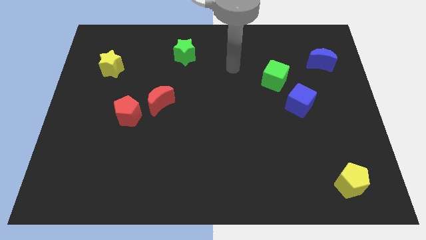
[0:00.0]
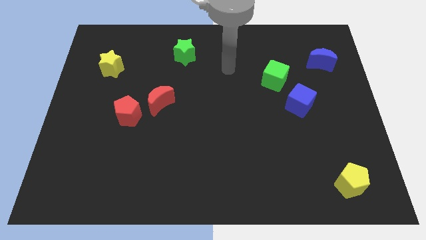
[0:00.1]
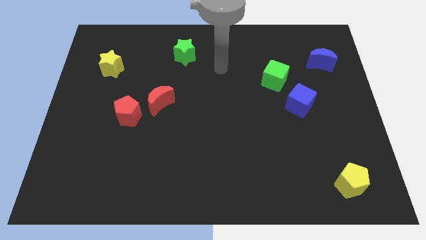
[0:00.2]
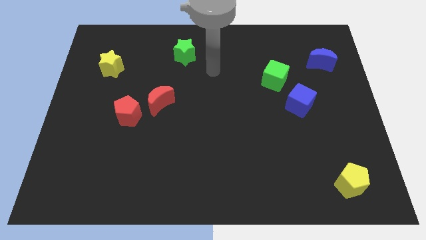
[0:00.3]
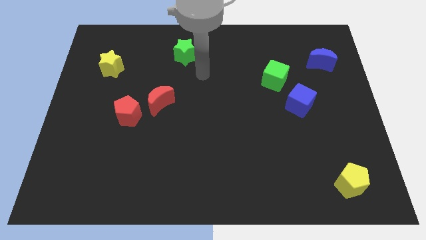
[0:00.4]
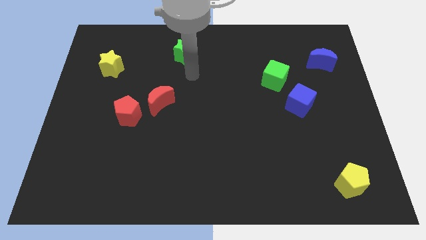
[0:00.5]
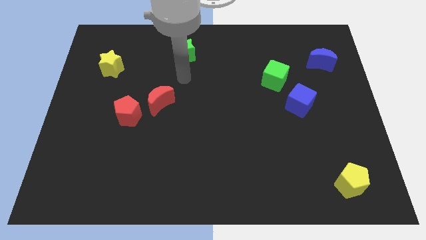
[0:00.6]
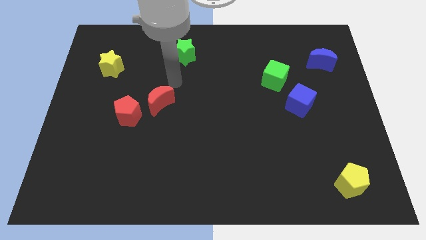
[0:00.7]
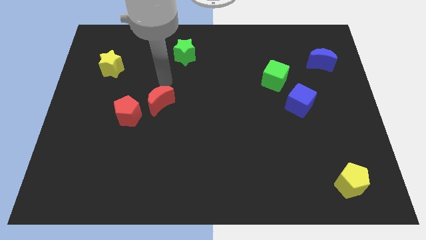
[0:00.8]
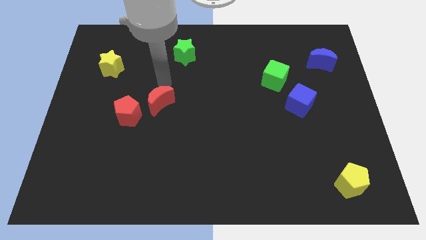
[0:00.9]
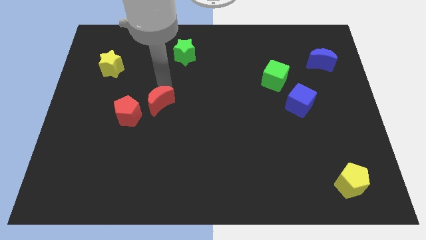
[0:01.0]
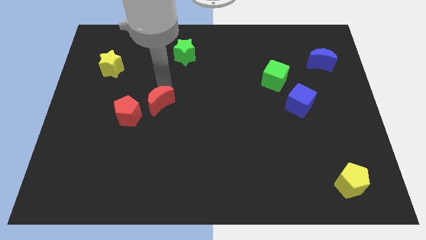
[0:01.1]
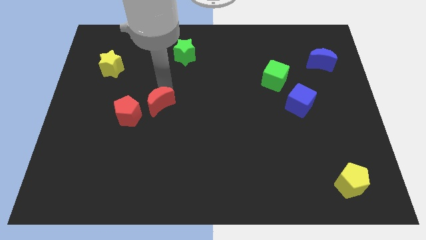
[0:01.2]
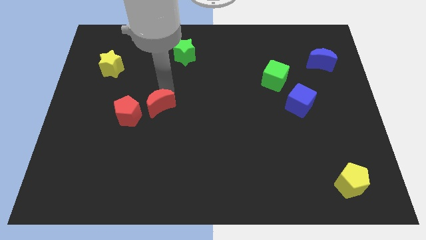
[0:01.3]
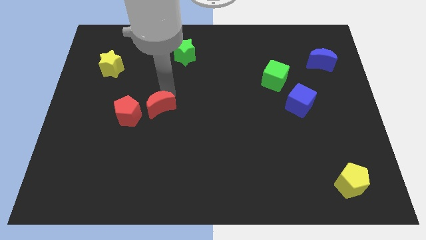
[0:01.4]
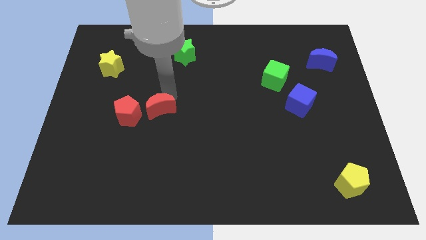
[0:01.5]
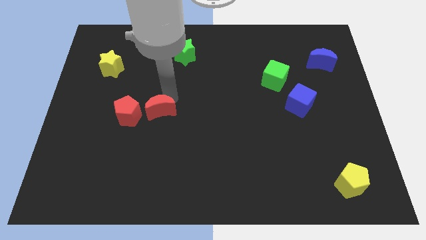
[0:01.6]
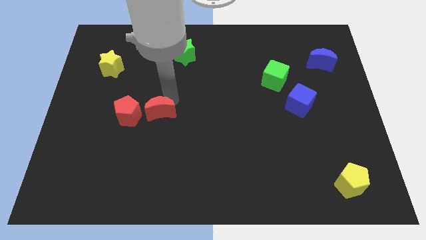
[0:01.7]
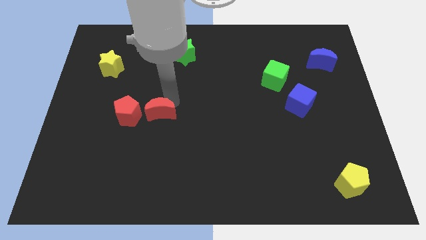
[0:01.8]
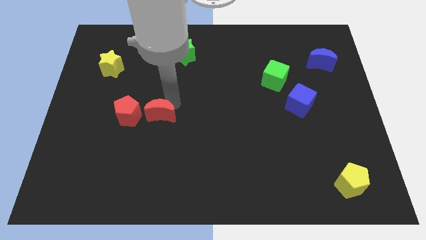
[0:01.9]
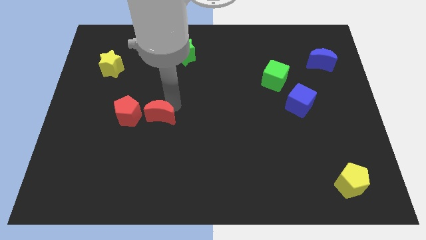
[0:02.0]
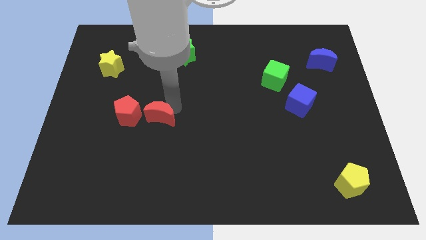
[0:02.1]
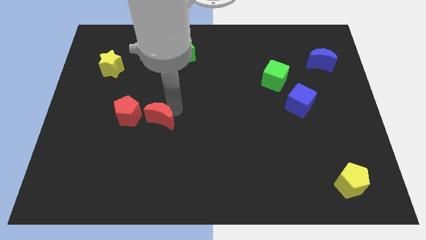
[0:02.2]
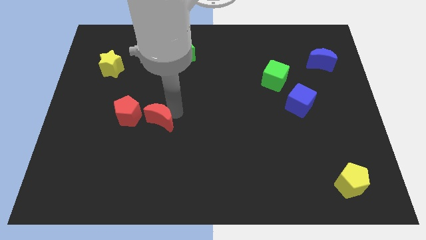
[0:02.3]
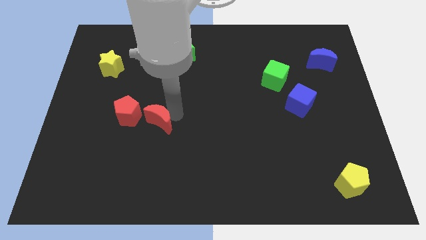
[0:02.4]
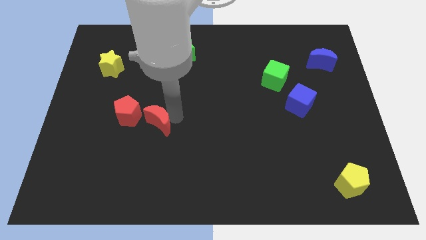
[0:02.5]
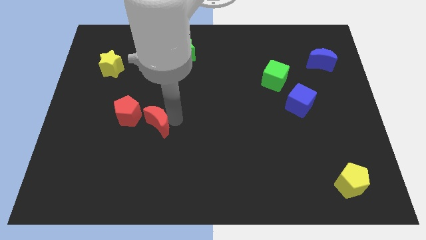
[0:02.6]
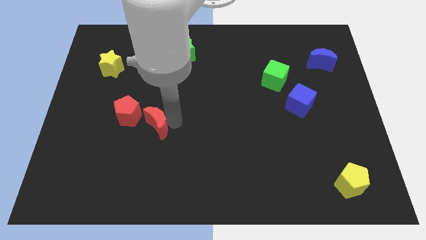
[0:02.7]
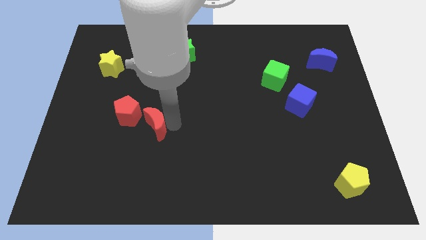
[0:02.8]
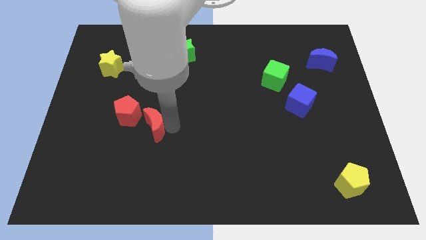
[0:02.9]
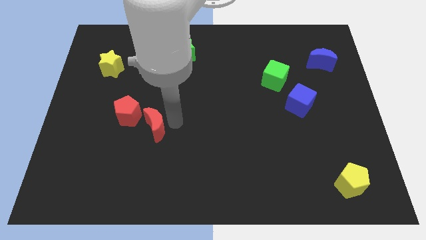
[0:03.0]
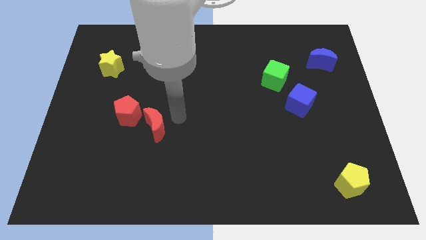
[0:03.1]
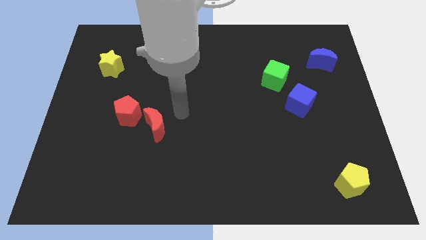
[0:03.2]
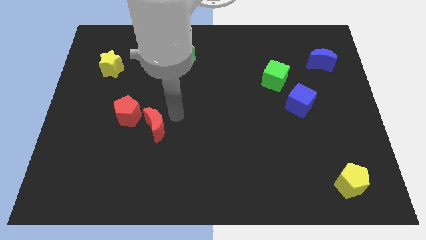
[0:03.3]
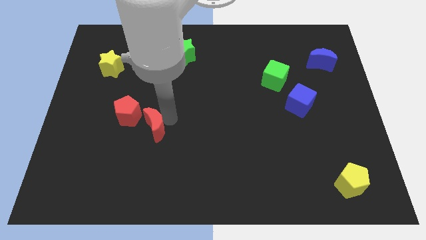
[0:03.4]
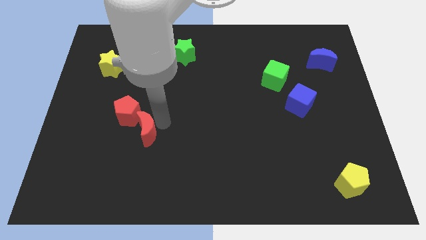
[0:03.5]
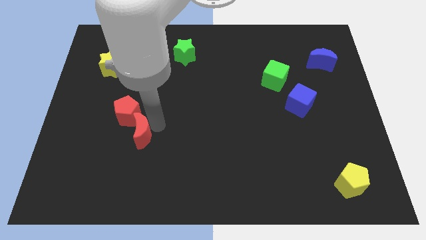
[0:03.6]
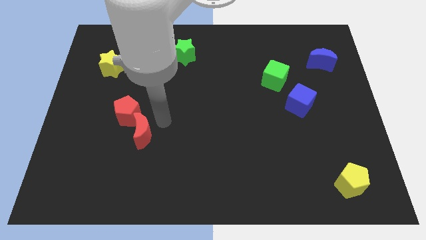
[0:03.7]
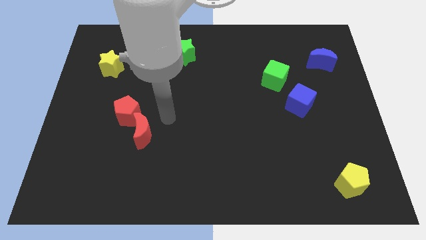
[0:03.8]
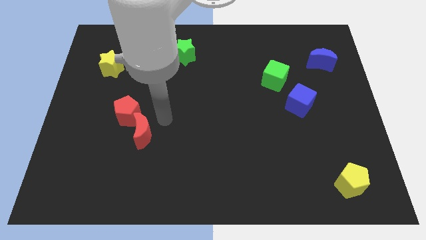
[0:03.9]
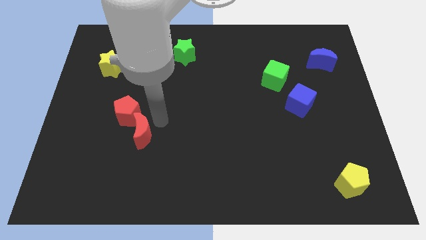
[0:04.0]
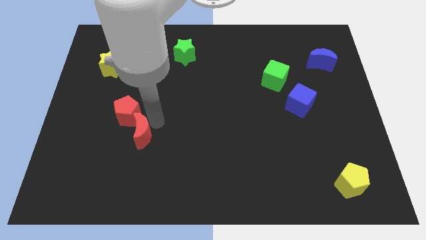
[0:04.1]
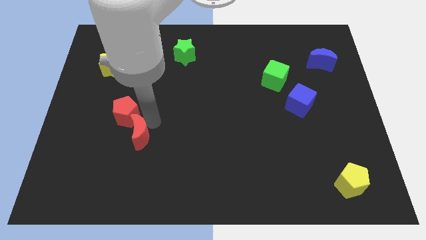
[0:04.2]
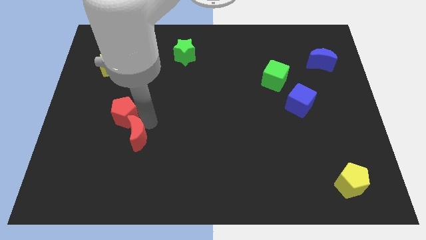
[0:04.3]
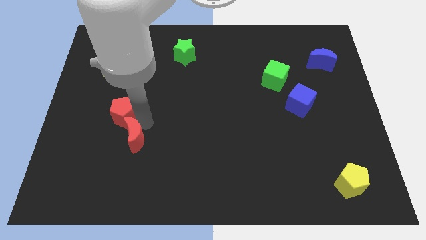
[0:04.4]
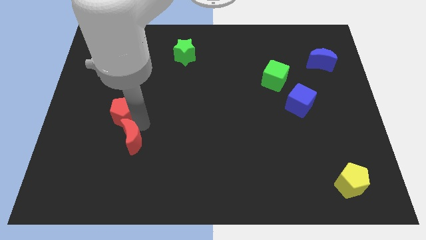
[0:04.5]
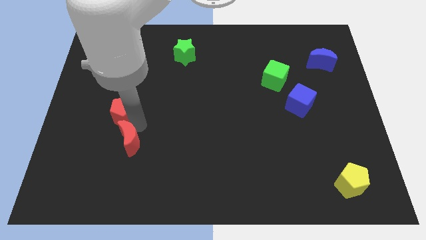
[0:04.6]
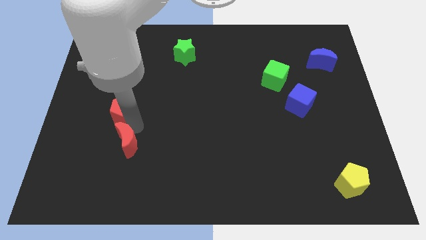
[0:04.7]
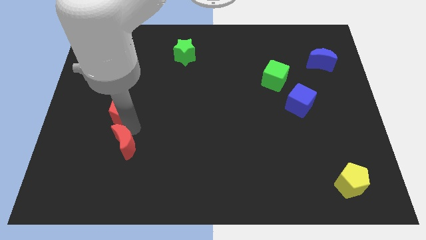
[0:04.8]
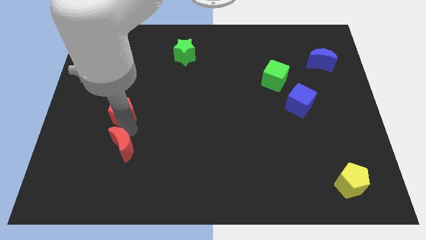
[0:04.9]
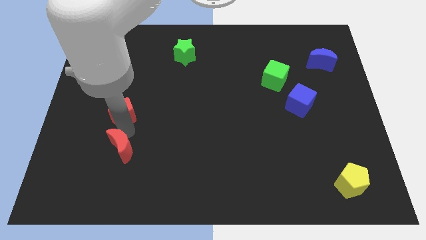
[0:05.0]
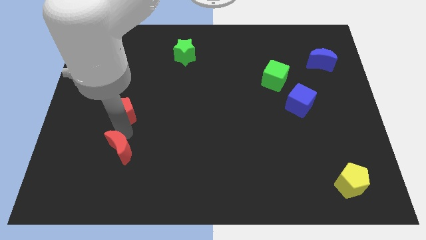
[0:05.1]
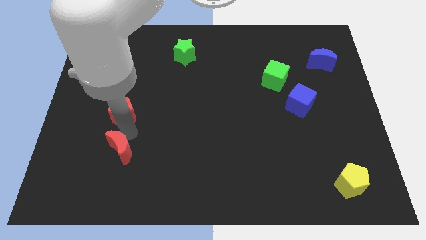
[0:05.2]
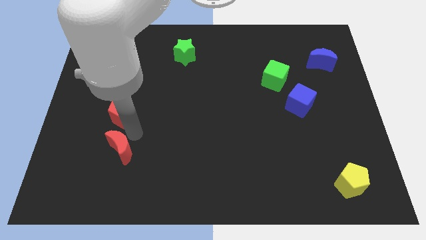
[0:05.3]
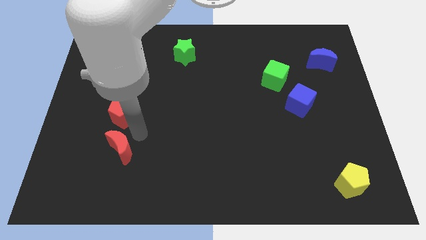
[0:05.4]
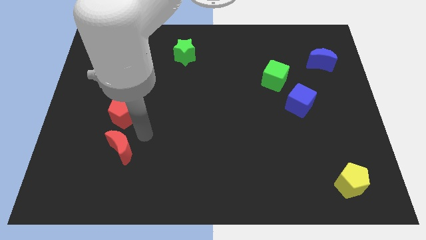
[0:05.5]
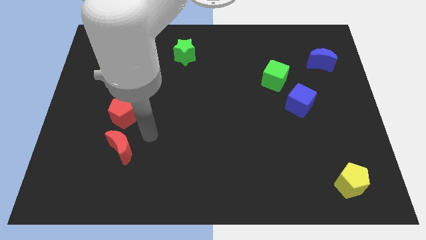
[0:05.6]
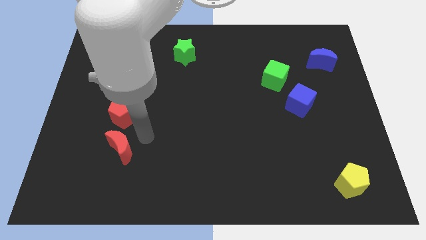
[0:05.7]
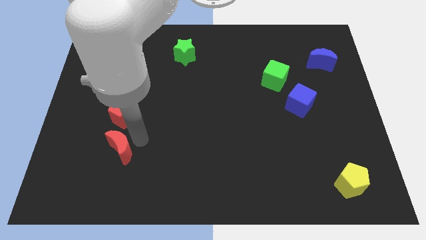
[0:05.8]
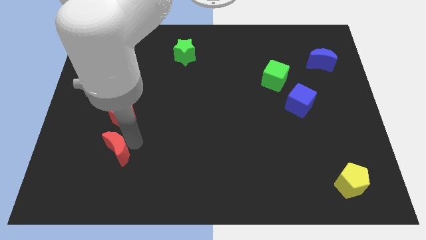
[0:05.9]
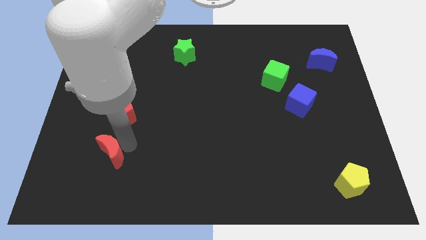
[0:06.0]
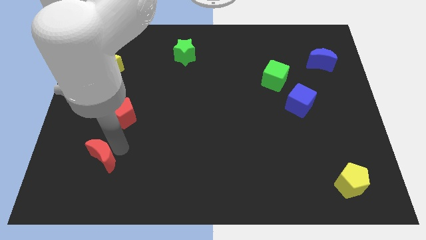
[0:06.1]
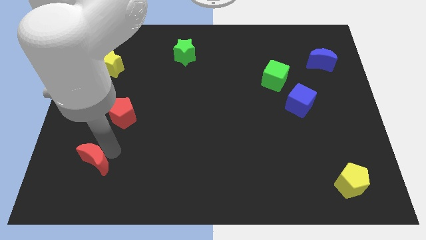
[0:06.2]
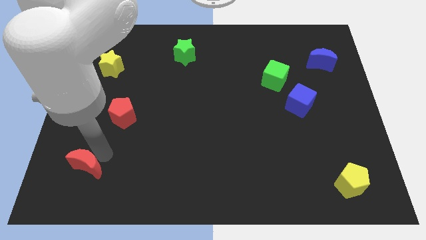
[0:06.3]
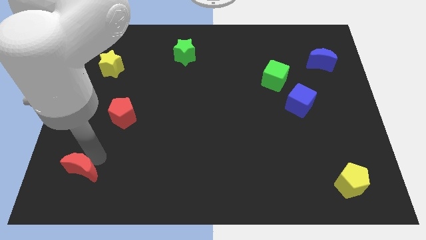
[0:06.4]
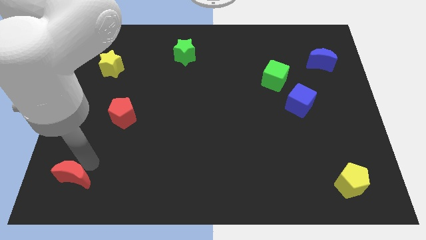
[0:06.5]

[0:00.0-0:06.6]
slide the red moon to the lower left corner
